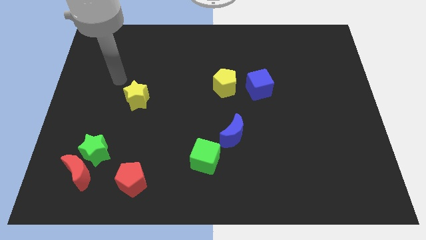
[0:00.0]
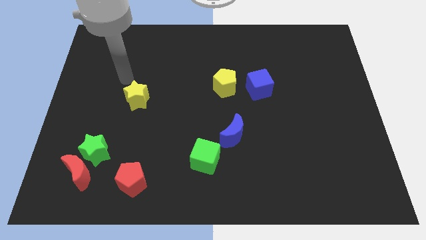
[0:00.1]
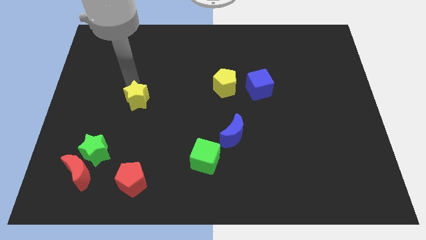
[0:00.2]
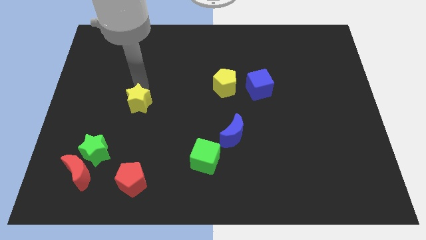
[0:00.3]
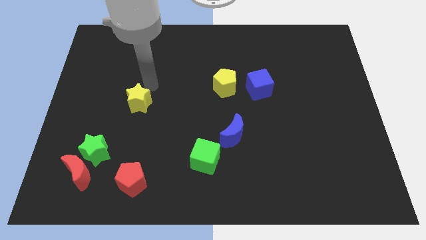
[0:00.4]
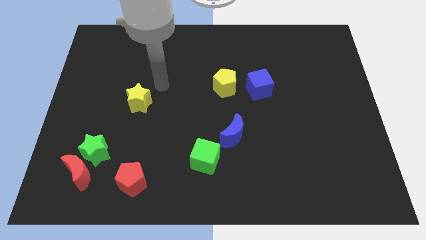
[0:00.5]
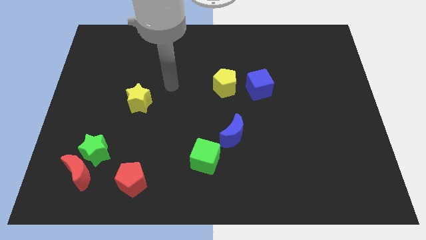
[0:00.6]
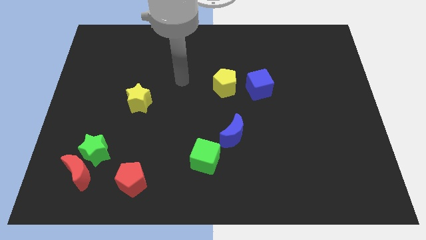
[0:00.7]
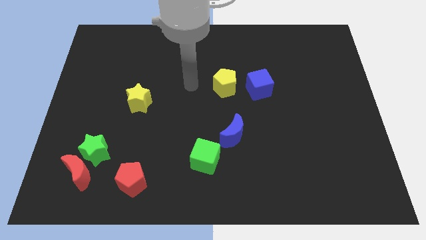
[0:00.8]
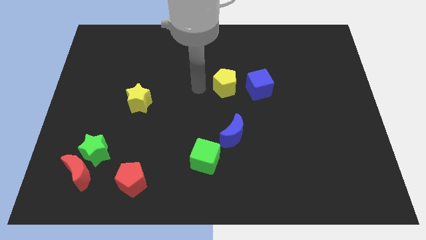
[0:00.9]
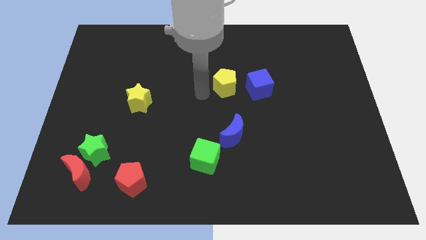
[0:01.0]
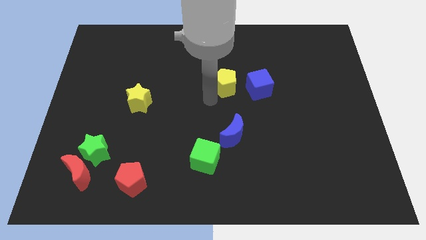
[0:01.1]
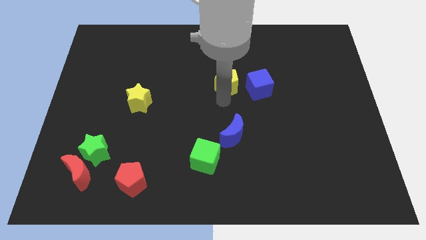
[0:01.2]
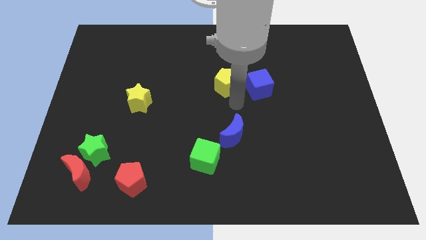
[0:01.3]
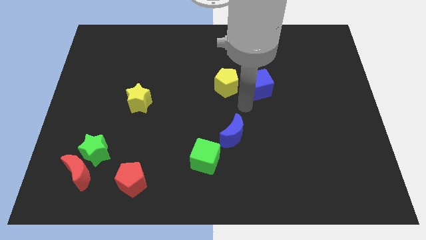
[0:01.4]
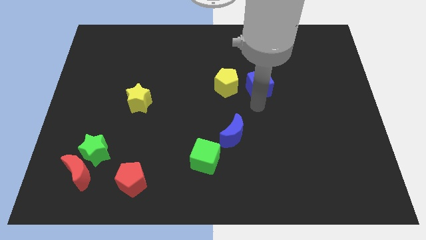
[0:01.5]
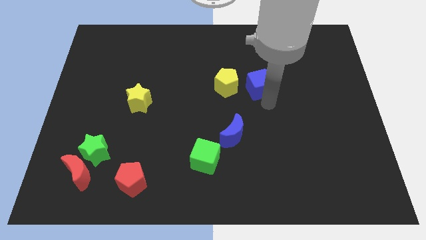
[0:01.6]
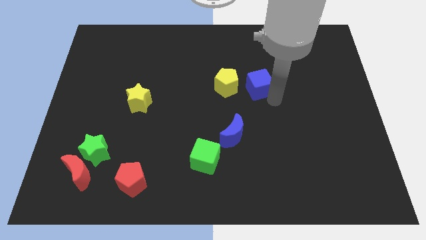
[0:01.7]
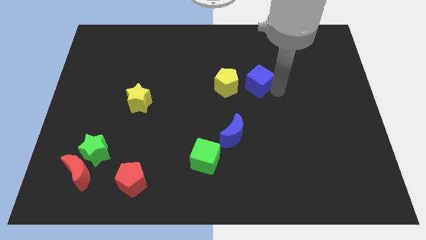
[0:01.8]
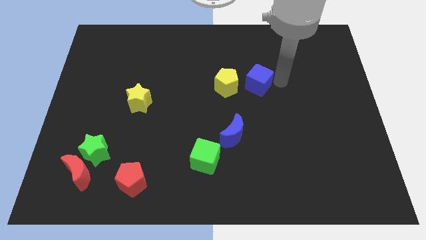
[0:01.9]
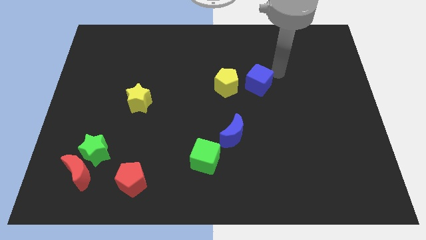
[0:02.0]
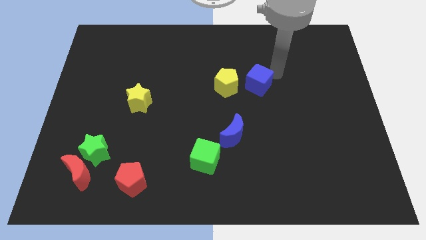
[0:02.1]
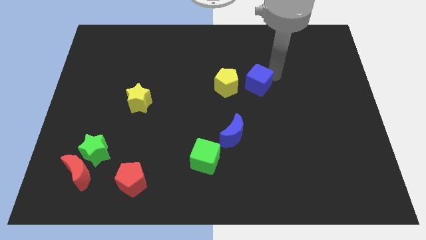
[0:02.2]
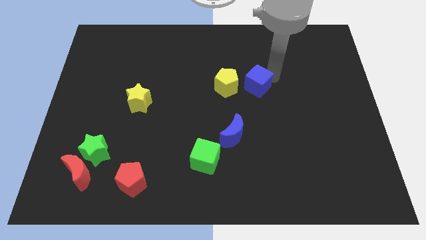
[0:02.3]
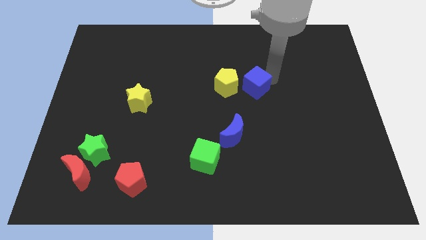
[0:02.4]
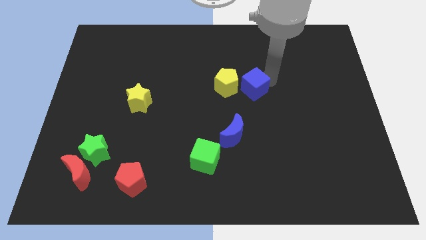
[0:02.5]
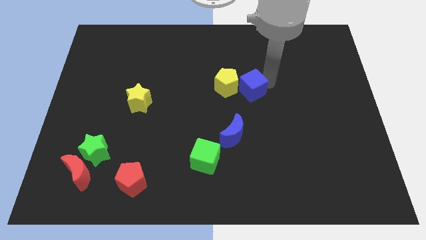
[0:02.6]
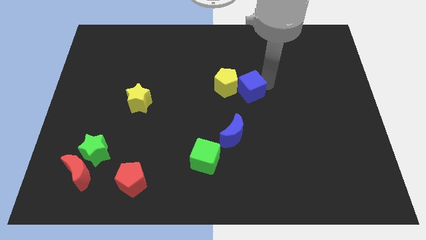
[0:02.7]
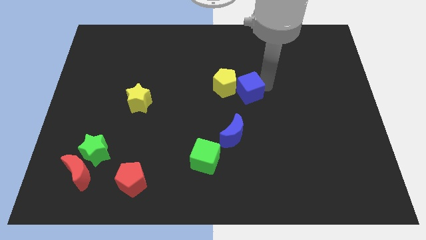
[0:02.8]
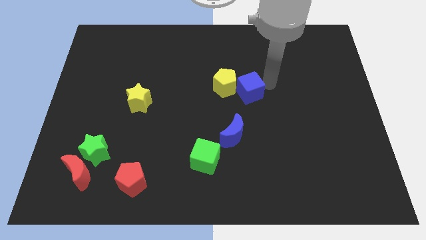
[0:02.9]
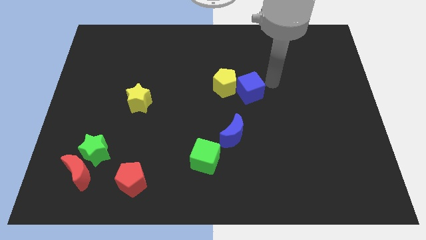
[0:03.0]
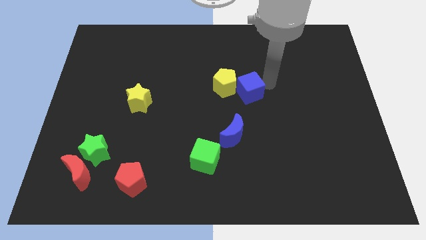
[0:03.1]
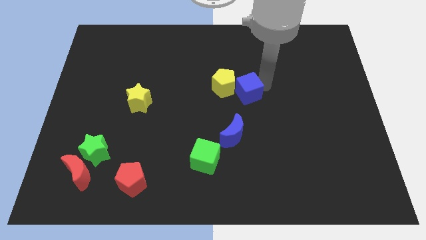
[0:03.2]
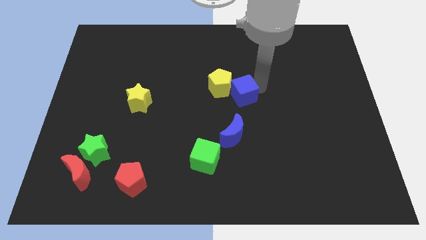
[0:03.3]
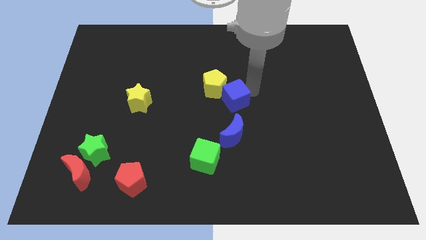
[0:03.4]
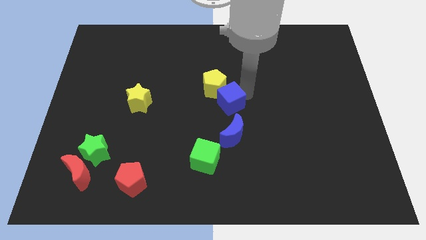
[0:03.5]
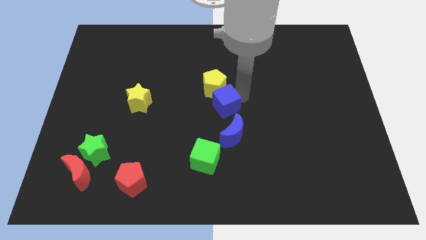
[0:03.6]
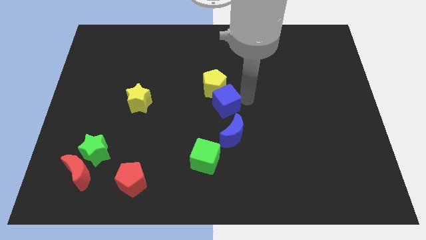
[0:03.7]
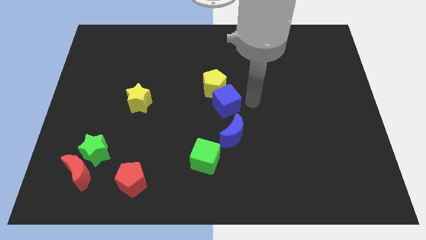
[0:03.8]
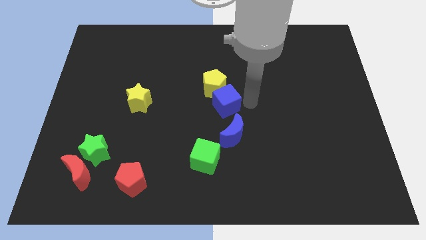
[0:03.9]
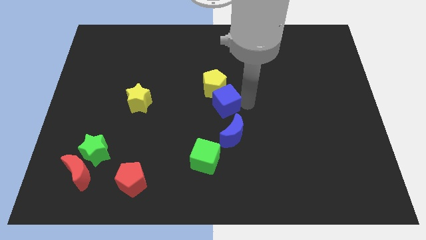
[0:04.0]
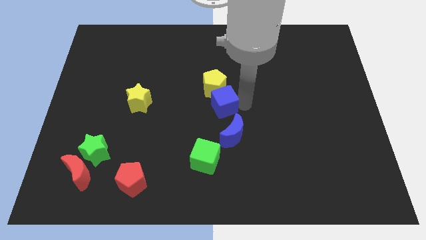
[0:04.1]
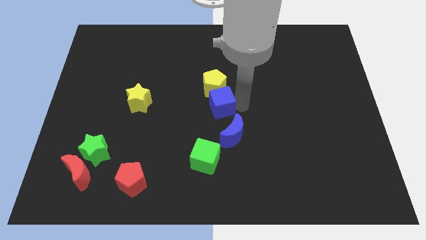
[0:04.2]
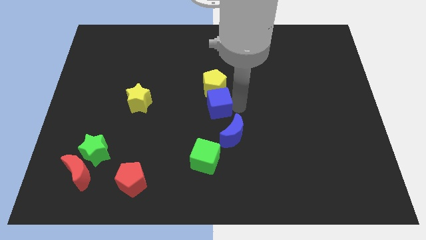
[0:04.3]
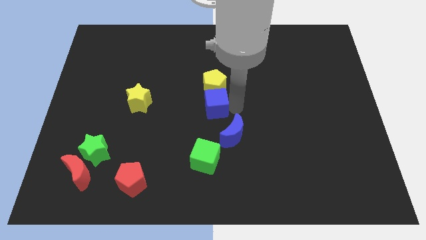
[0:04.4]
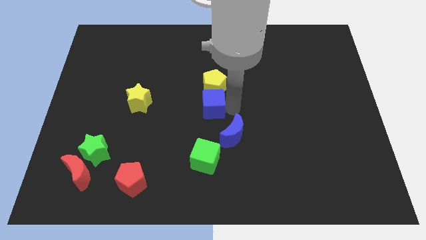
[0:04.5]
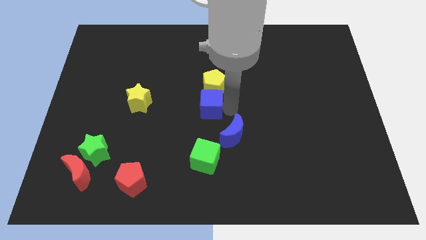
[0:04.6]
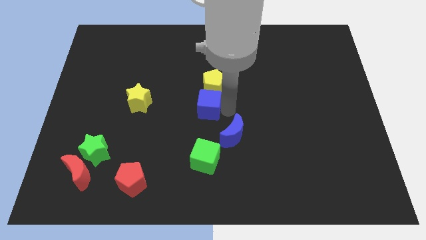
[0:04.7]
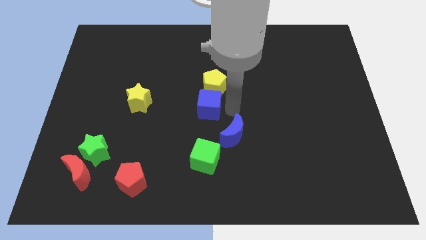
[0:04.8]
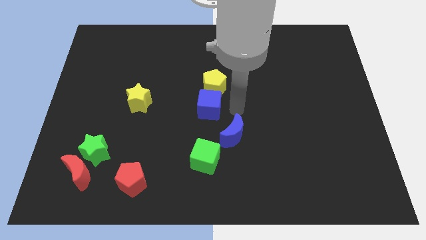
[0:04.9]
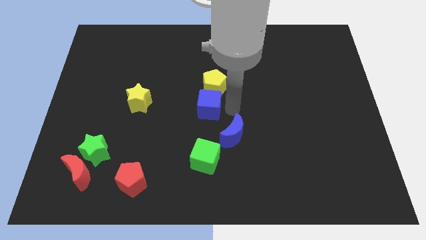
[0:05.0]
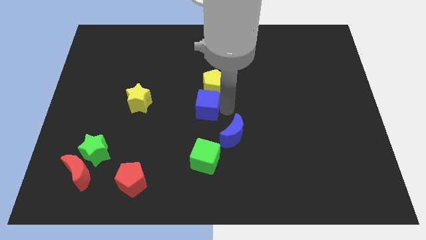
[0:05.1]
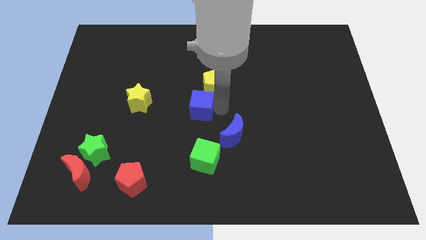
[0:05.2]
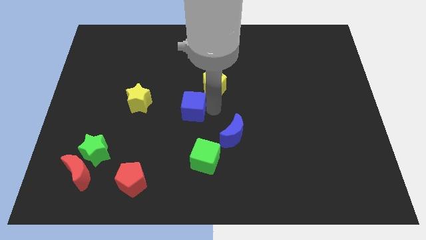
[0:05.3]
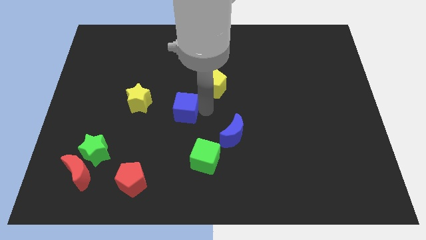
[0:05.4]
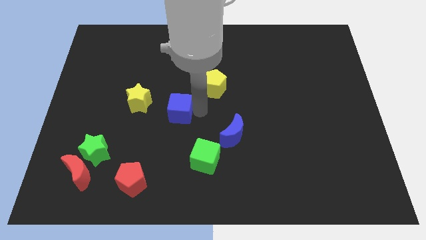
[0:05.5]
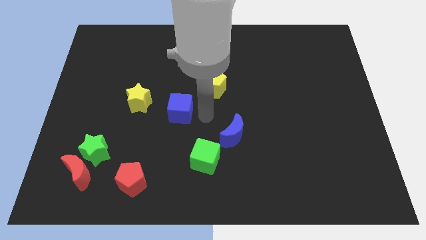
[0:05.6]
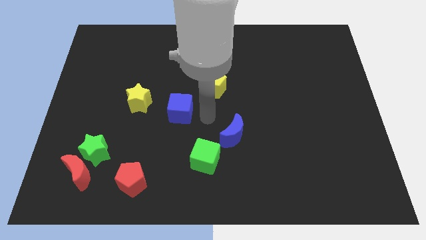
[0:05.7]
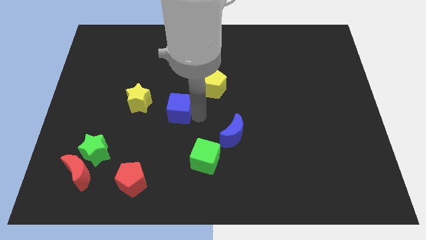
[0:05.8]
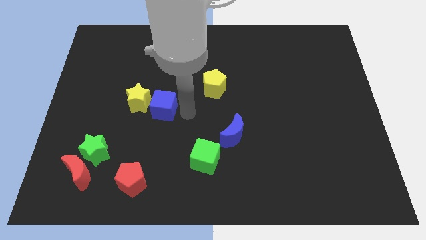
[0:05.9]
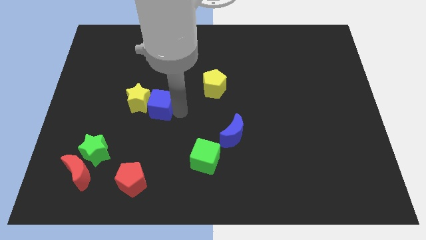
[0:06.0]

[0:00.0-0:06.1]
push the blue cube next to the yellow star

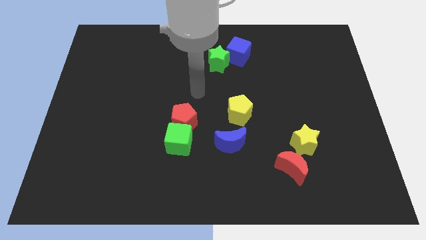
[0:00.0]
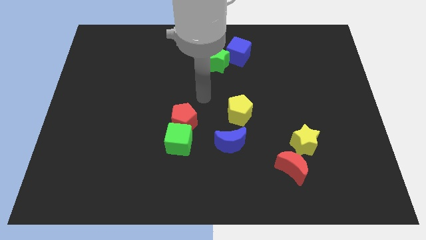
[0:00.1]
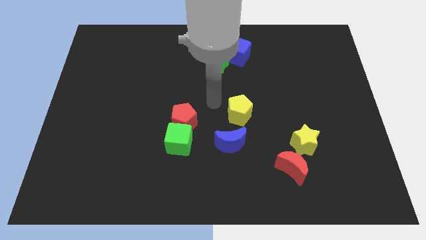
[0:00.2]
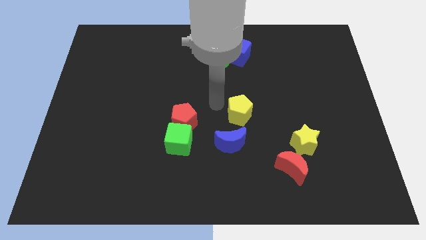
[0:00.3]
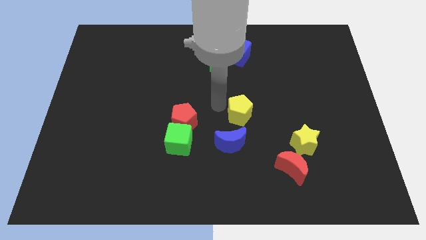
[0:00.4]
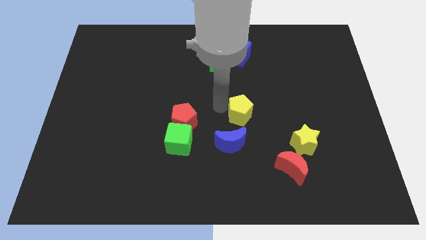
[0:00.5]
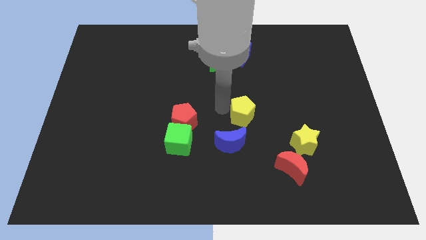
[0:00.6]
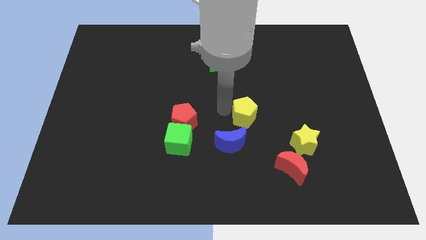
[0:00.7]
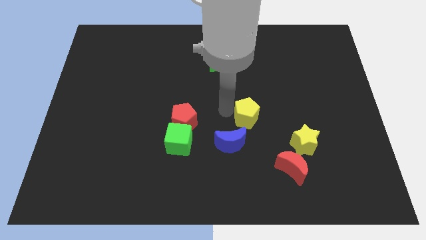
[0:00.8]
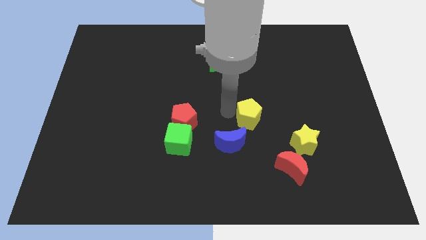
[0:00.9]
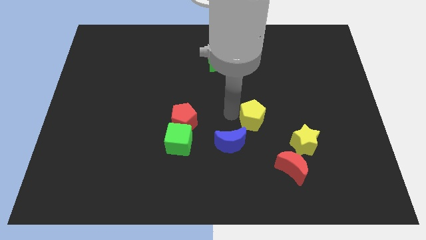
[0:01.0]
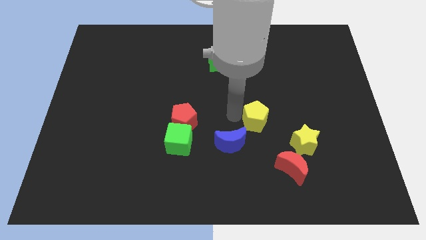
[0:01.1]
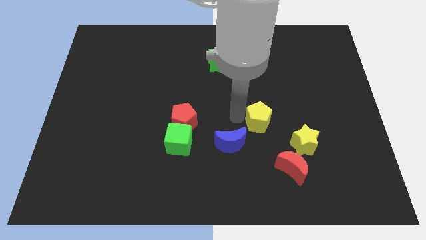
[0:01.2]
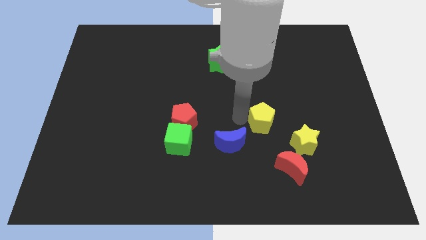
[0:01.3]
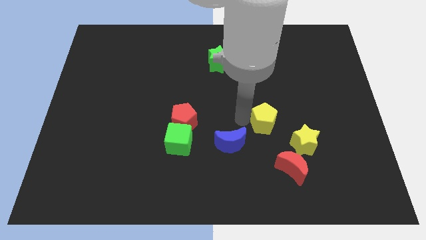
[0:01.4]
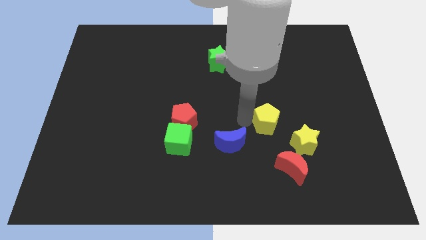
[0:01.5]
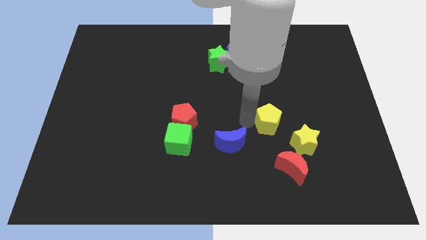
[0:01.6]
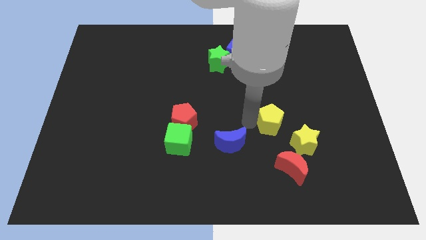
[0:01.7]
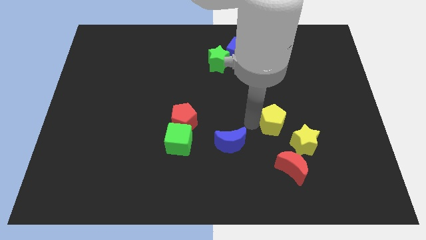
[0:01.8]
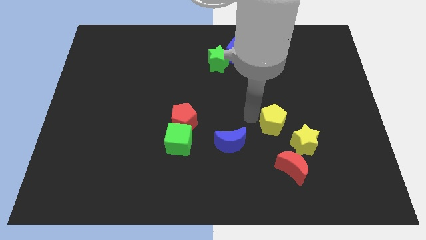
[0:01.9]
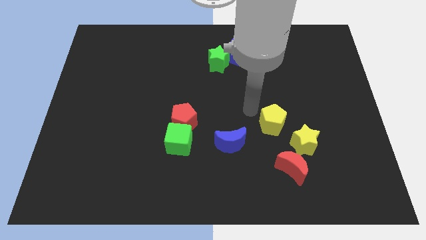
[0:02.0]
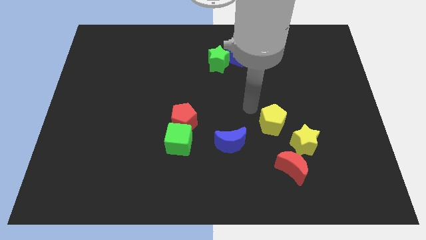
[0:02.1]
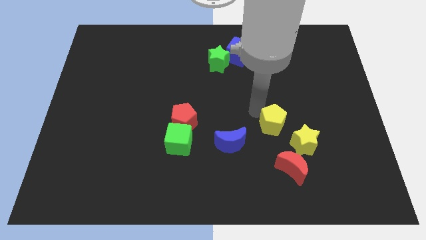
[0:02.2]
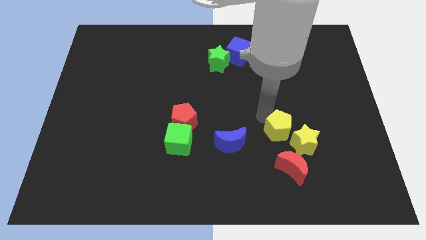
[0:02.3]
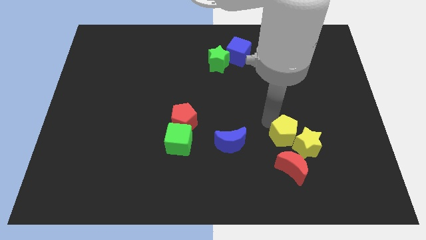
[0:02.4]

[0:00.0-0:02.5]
push the yellow pentagon next to the yellow star
